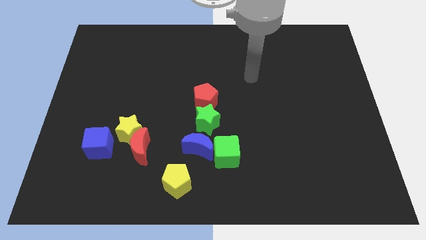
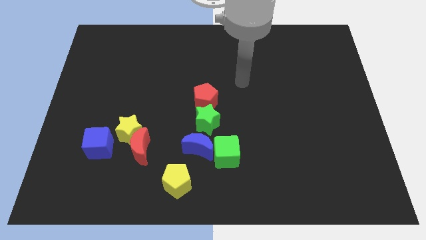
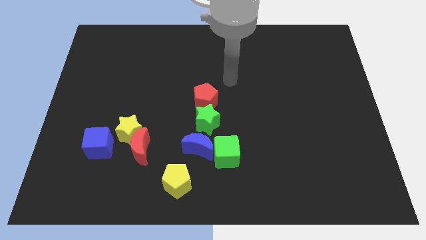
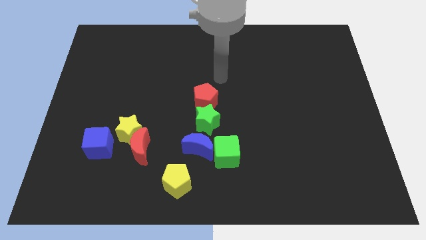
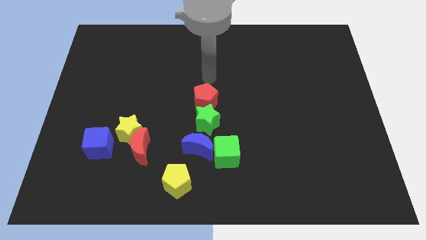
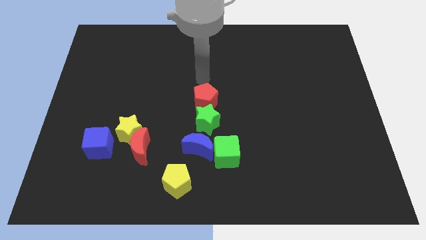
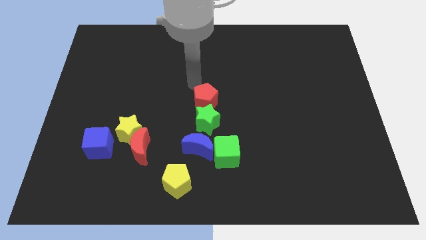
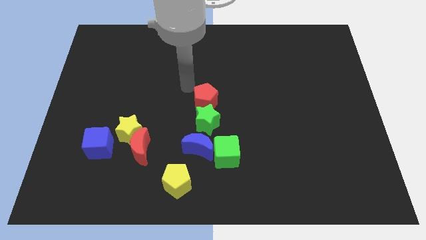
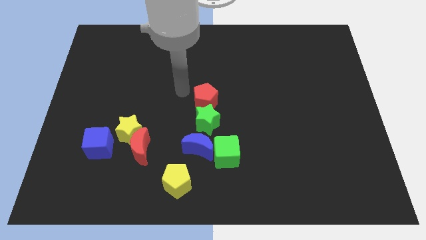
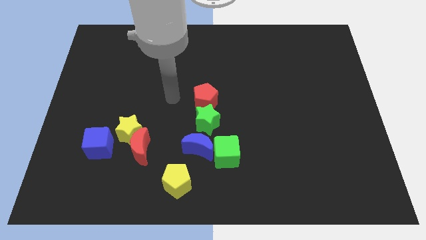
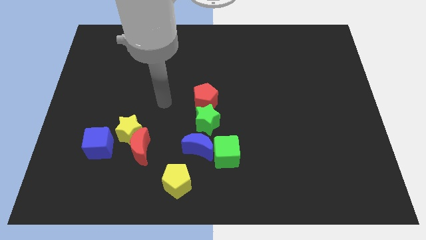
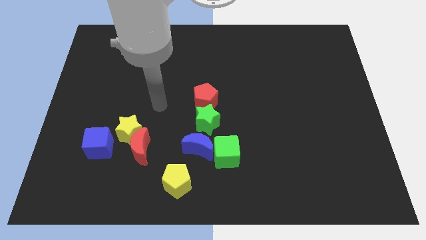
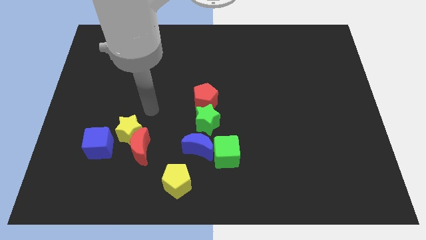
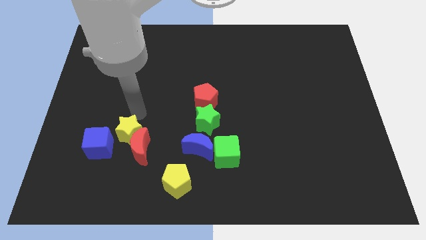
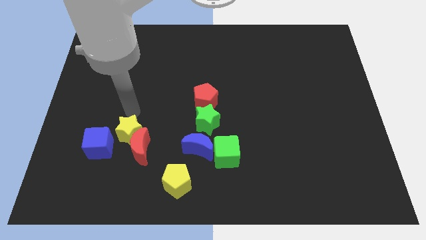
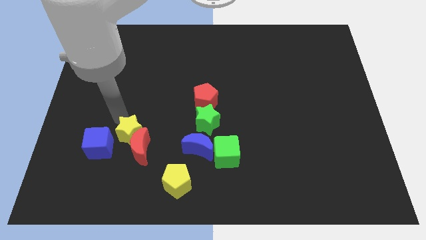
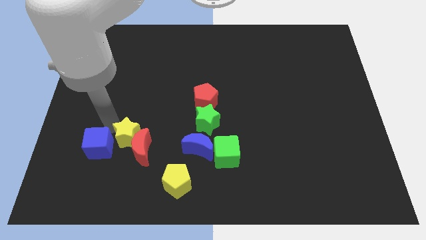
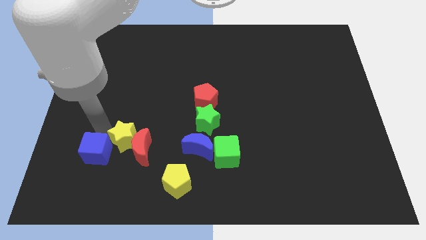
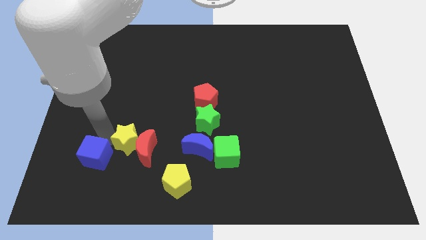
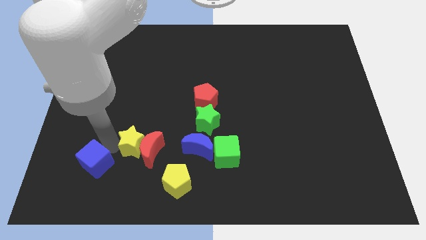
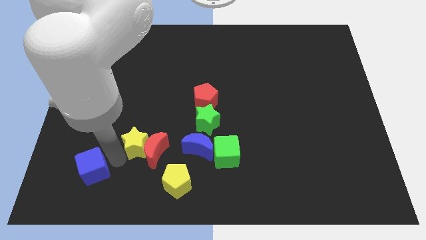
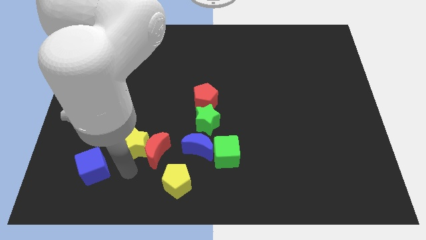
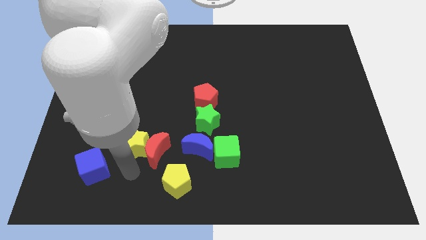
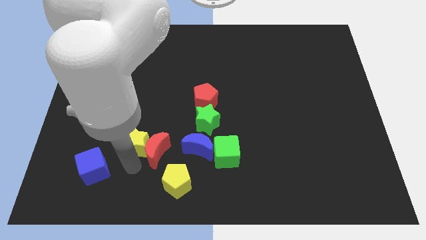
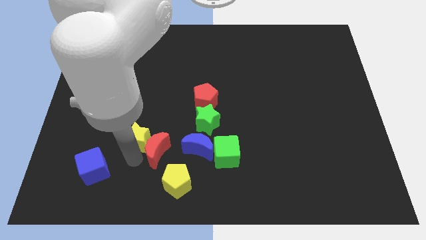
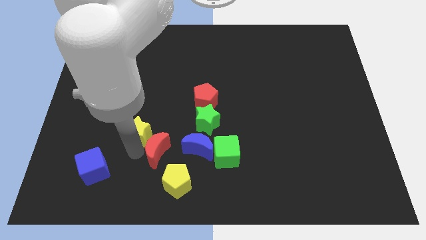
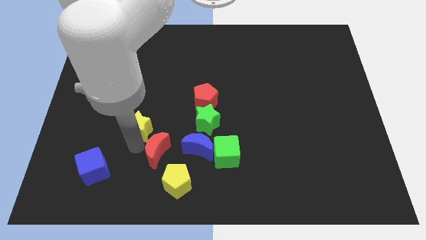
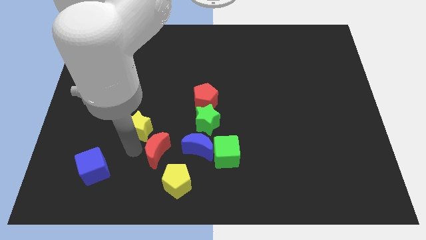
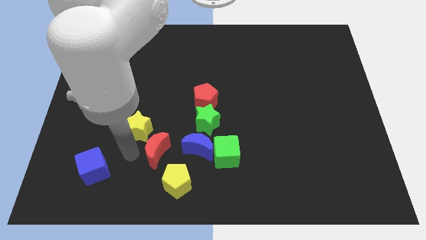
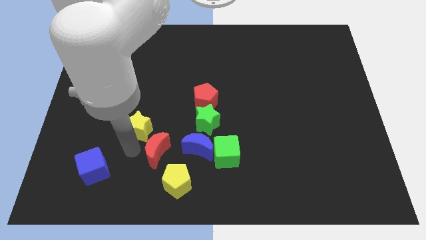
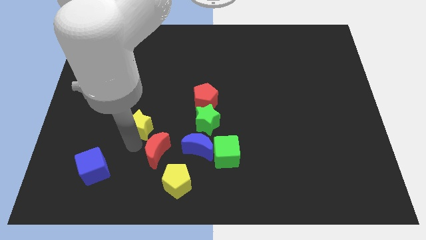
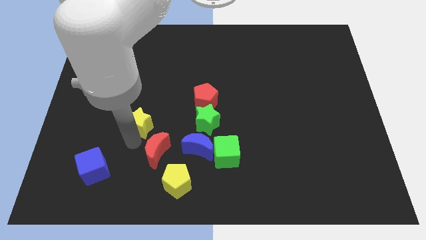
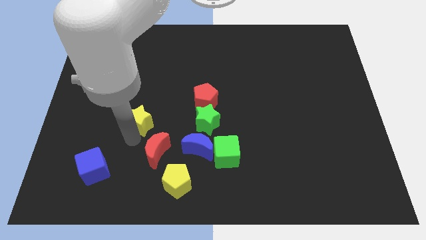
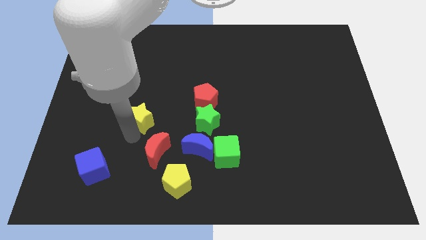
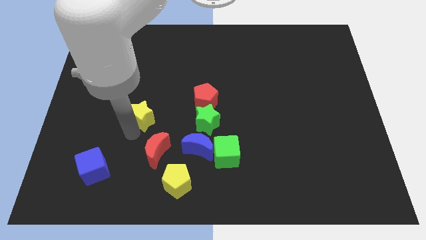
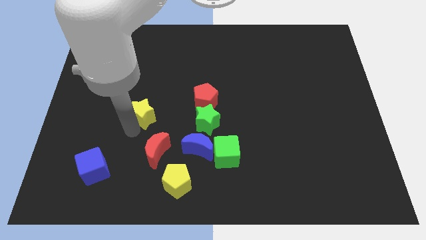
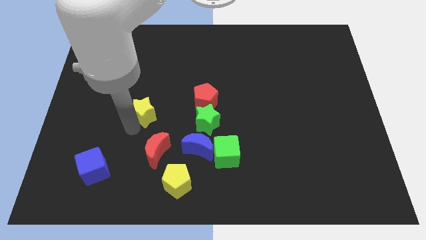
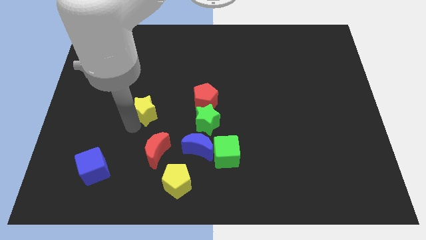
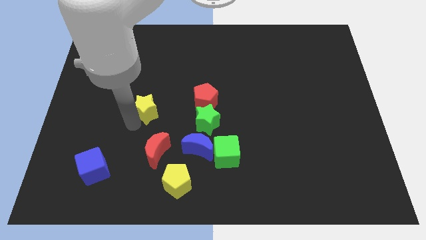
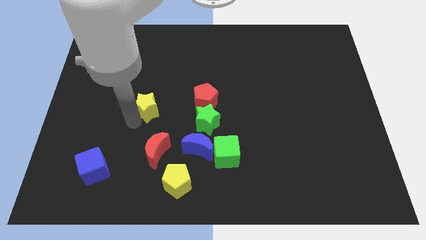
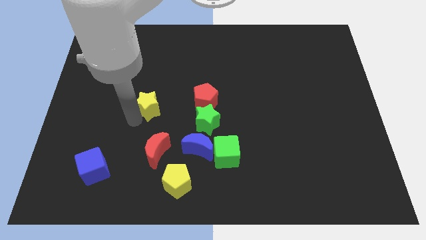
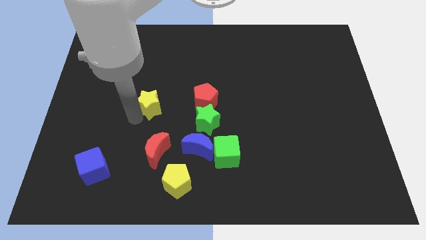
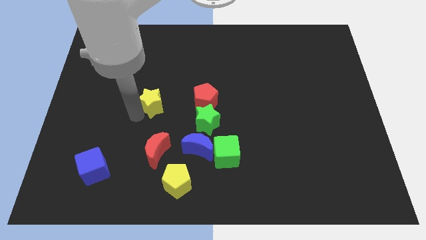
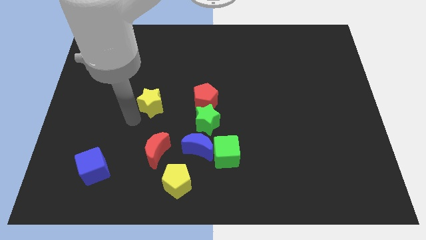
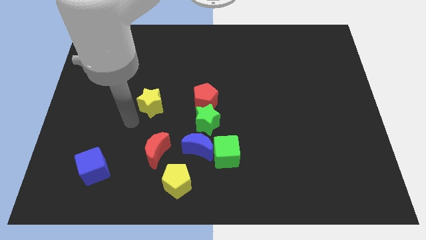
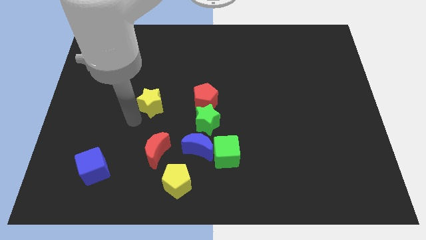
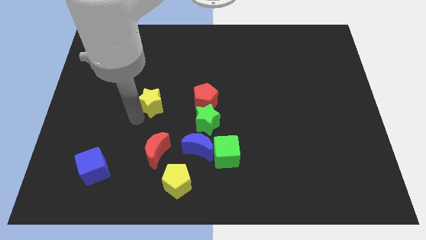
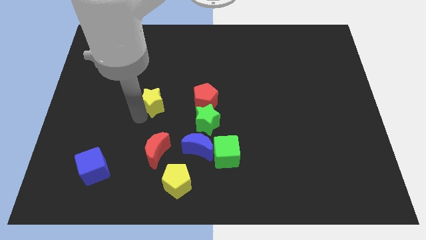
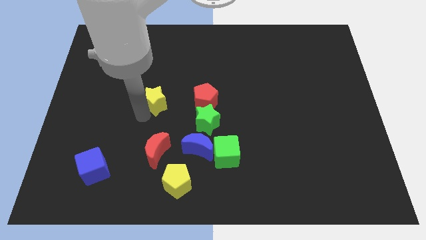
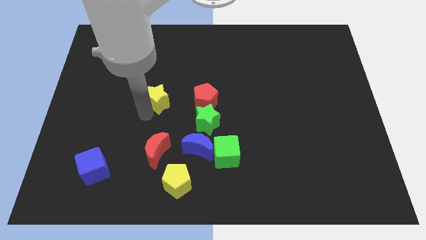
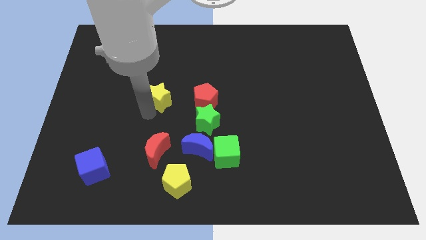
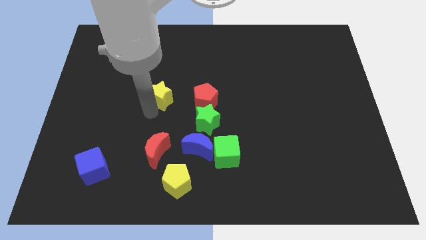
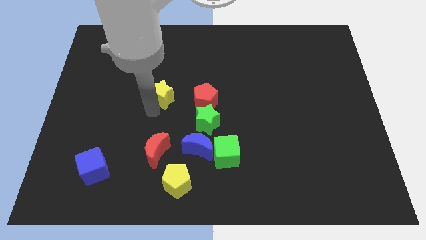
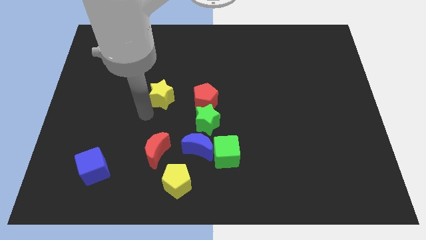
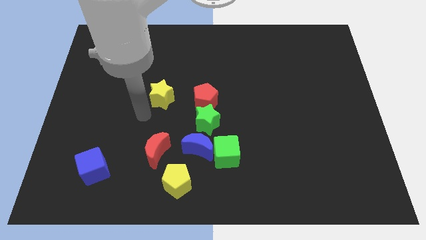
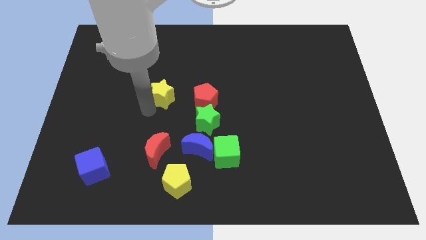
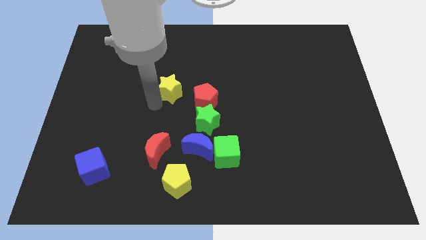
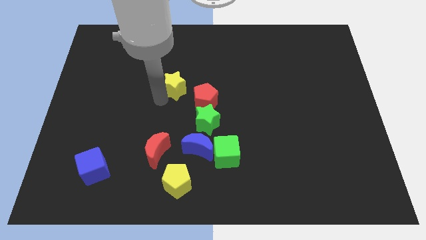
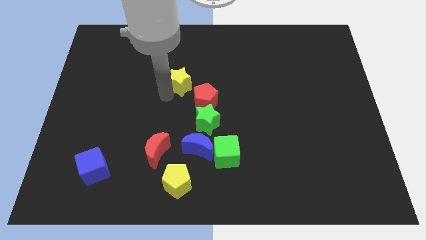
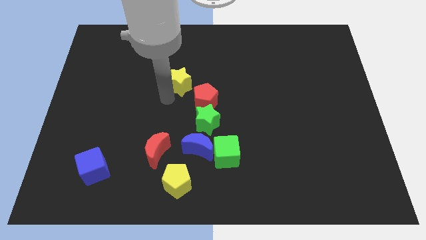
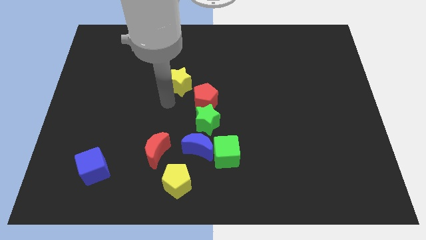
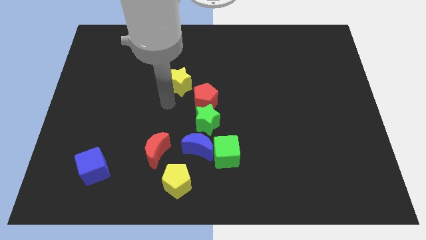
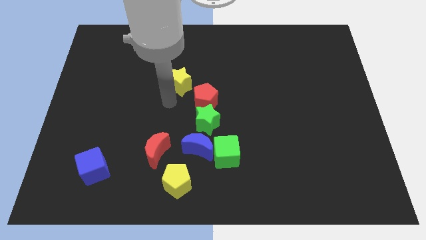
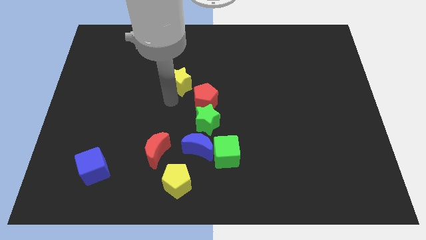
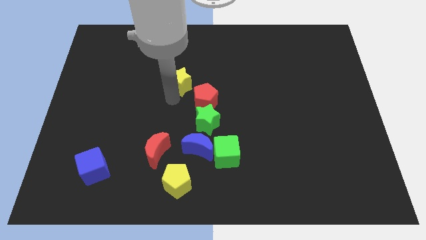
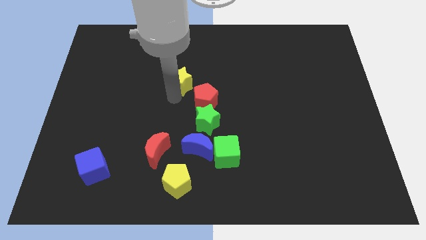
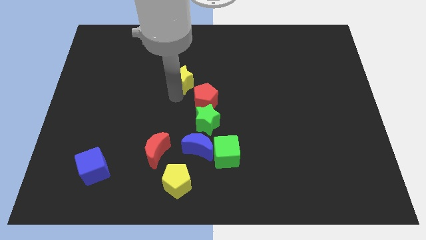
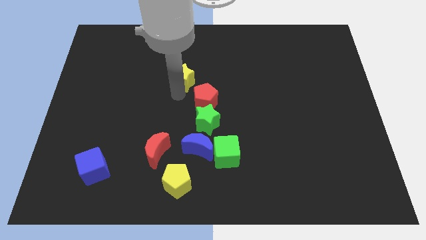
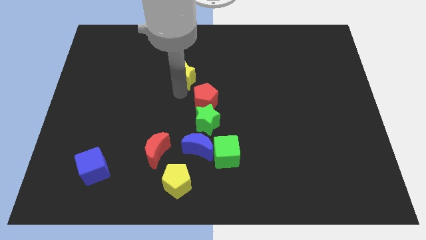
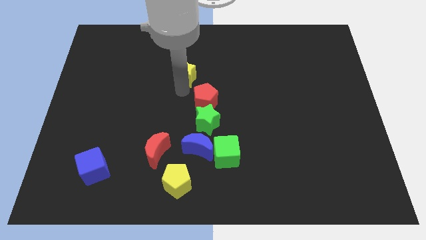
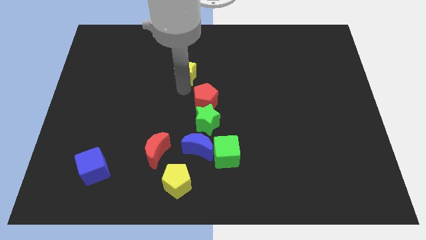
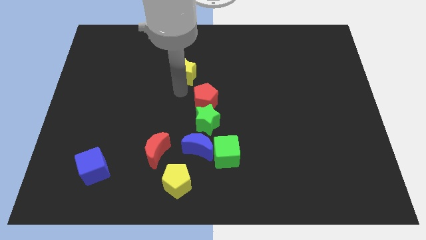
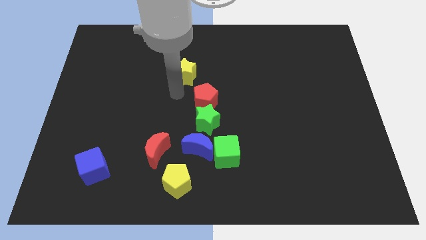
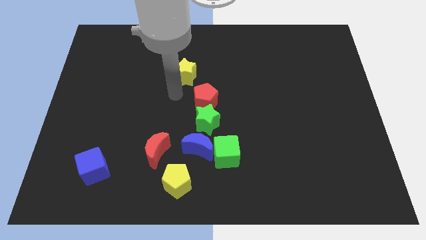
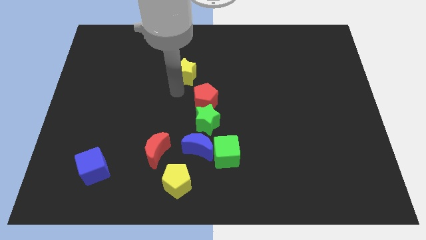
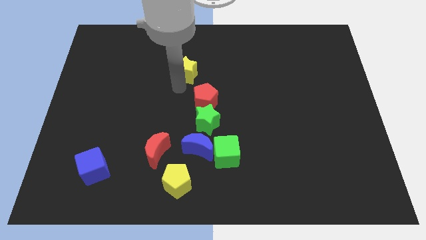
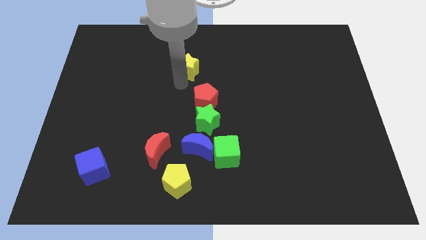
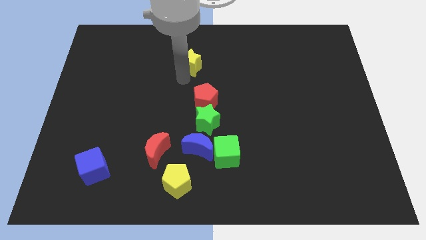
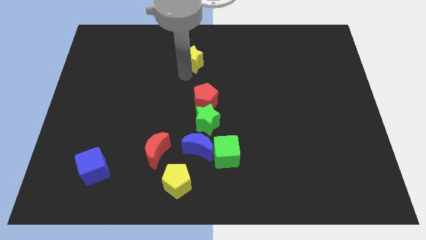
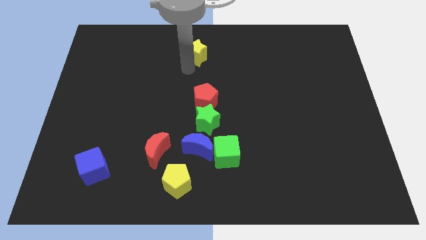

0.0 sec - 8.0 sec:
move the yellow star to the top side
